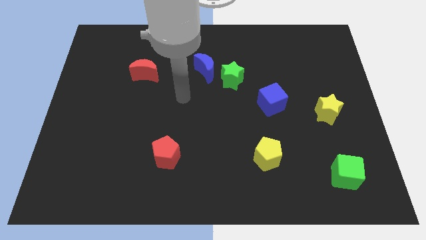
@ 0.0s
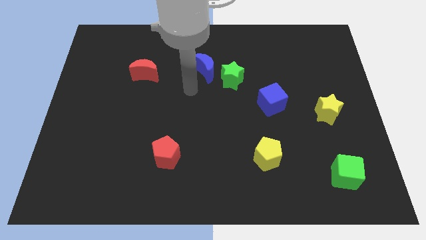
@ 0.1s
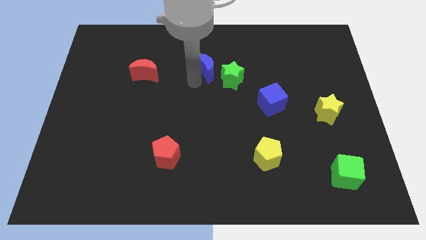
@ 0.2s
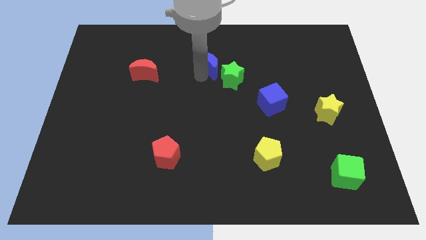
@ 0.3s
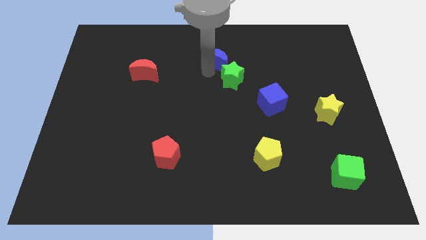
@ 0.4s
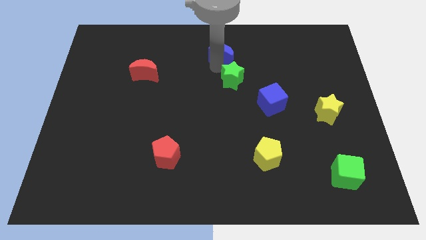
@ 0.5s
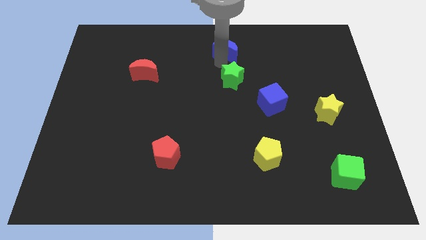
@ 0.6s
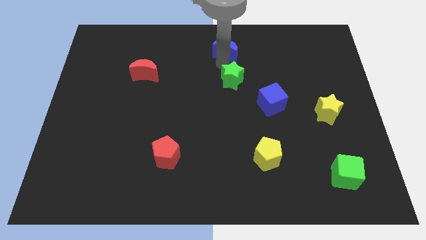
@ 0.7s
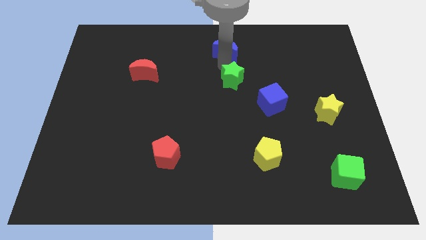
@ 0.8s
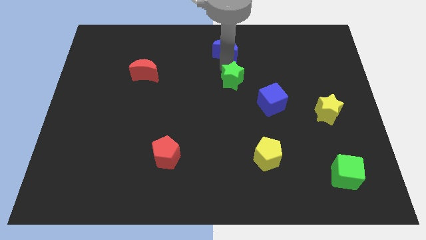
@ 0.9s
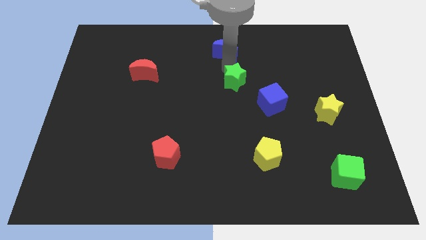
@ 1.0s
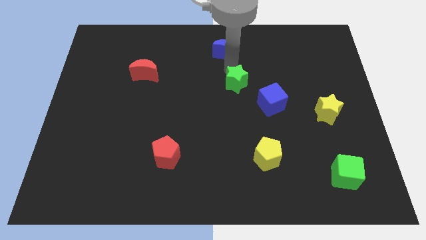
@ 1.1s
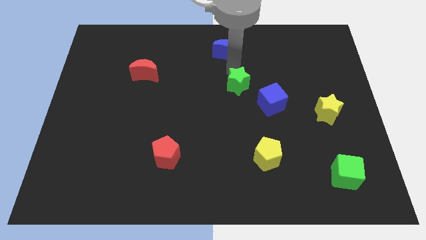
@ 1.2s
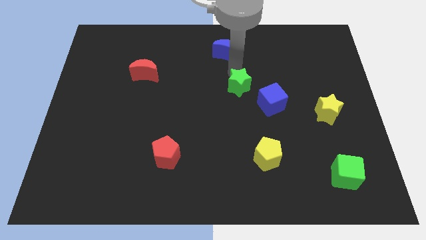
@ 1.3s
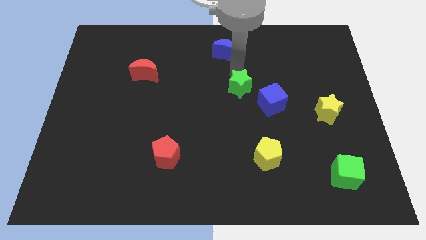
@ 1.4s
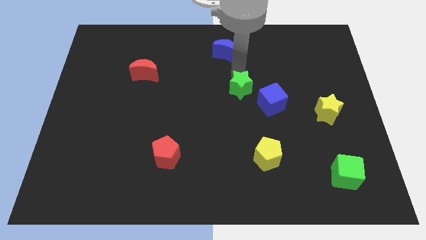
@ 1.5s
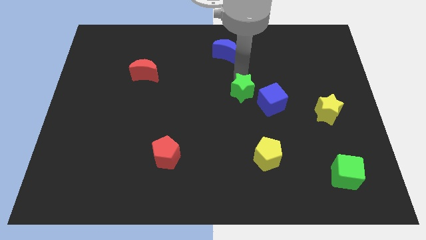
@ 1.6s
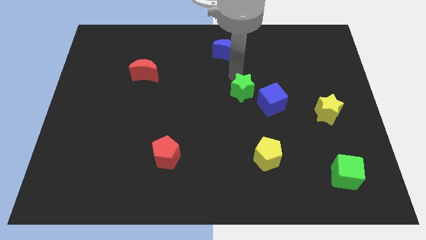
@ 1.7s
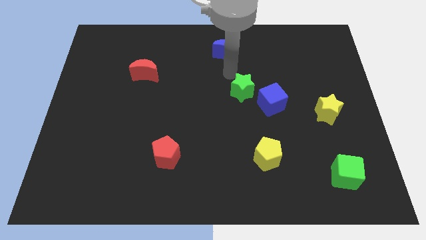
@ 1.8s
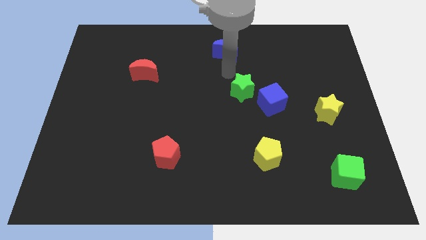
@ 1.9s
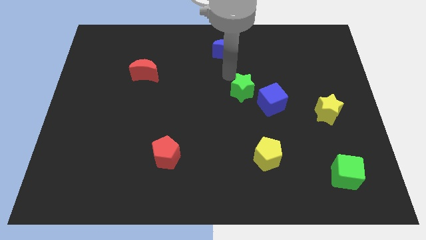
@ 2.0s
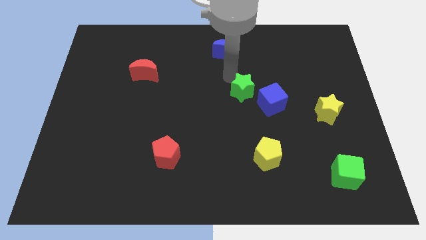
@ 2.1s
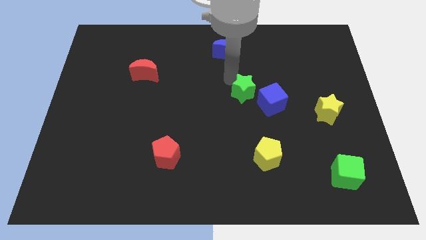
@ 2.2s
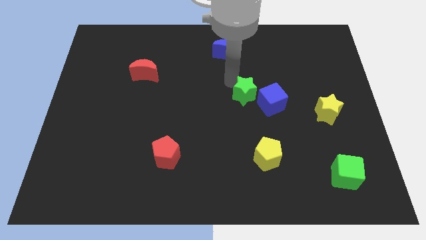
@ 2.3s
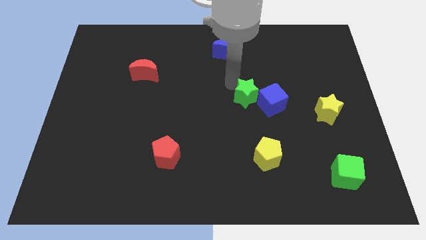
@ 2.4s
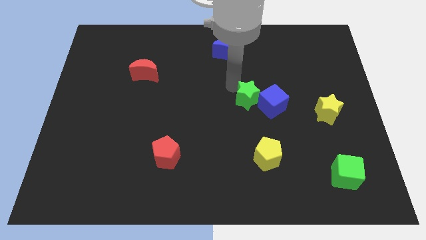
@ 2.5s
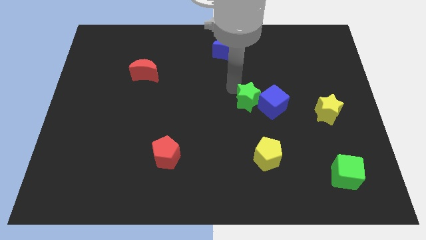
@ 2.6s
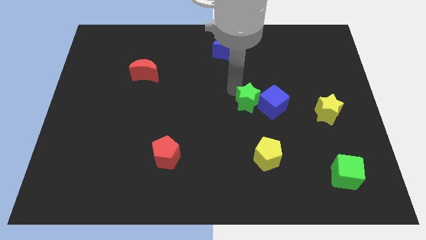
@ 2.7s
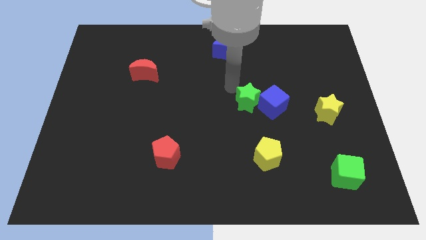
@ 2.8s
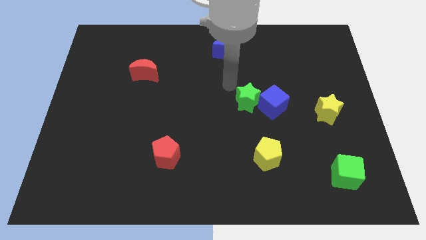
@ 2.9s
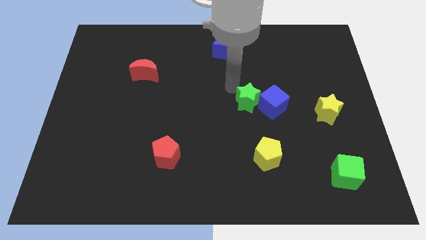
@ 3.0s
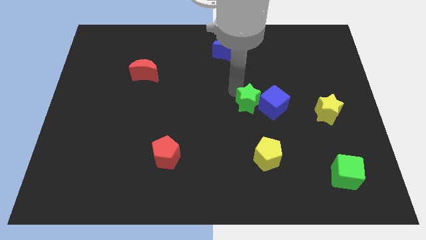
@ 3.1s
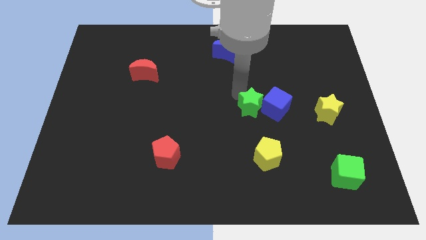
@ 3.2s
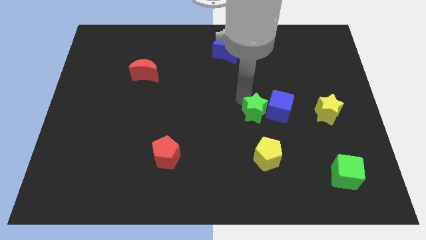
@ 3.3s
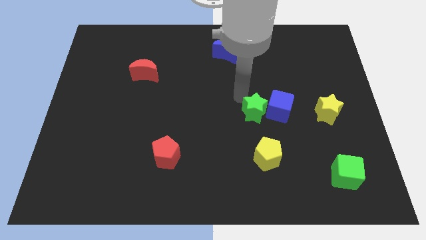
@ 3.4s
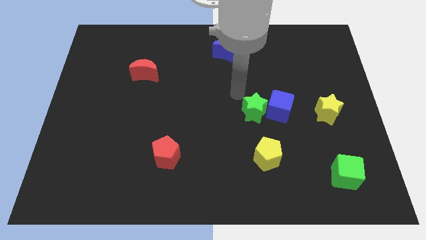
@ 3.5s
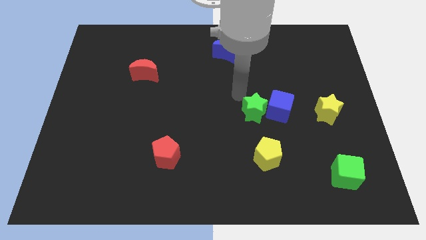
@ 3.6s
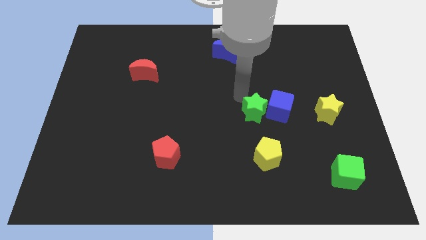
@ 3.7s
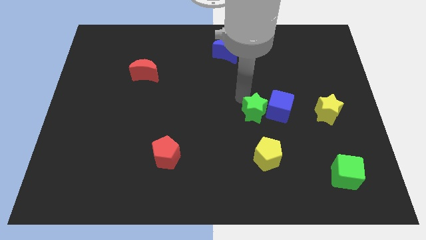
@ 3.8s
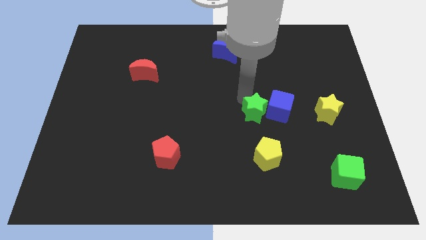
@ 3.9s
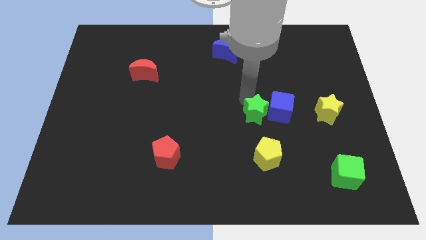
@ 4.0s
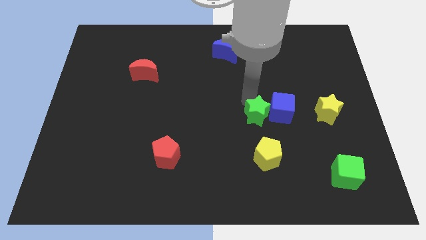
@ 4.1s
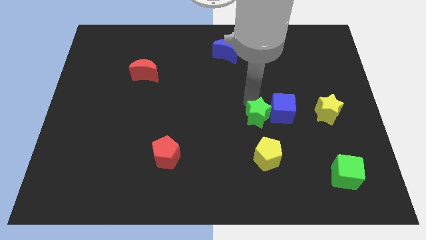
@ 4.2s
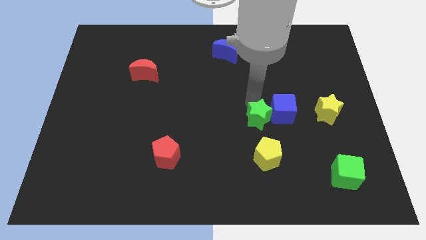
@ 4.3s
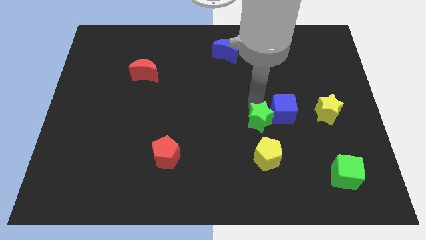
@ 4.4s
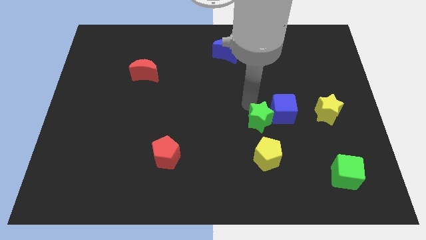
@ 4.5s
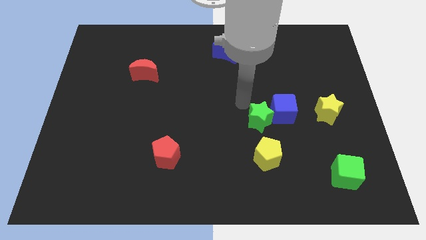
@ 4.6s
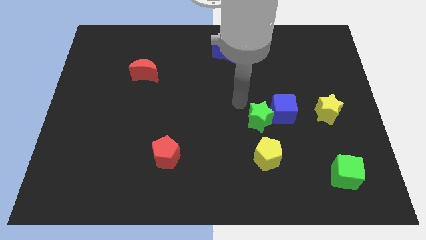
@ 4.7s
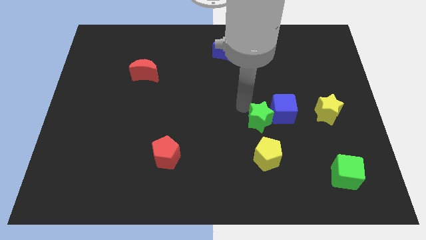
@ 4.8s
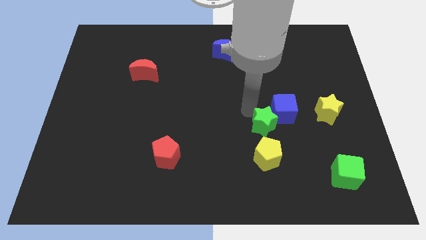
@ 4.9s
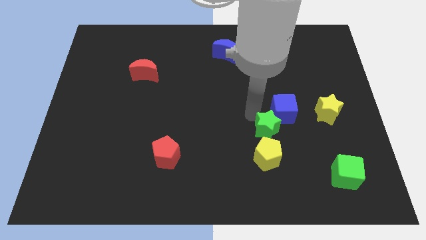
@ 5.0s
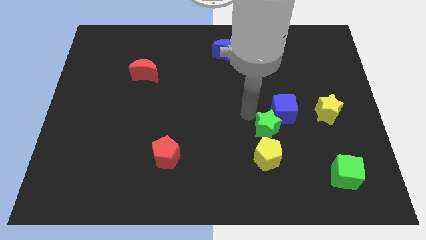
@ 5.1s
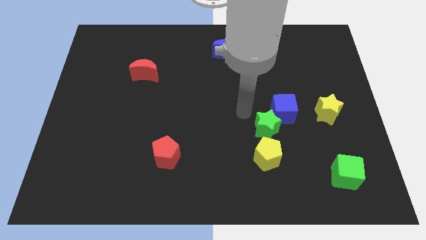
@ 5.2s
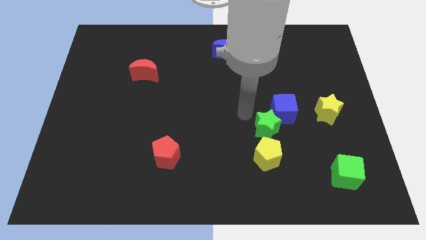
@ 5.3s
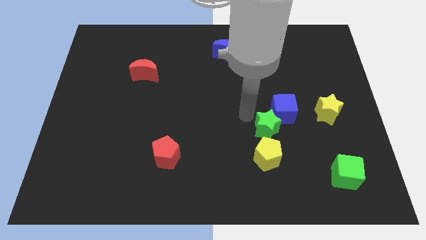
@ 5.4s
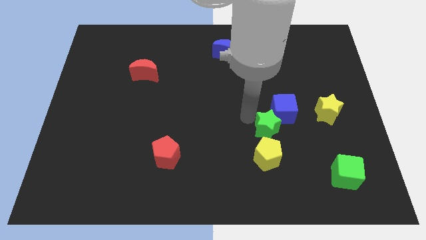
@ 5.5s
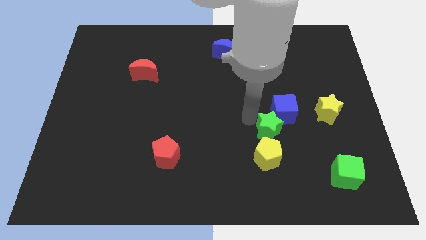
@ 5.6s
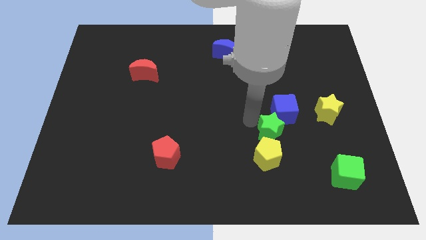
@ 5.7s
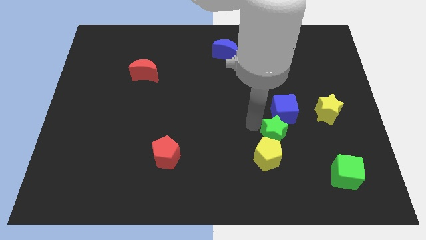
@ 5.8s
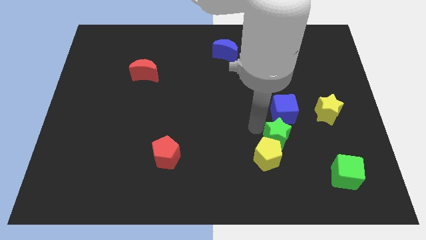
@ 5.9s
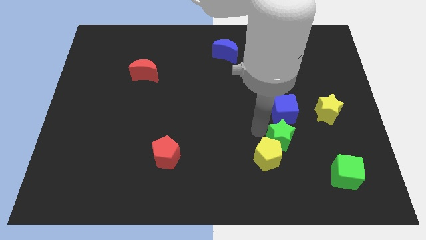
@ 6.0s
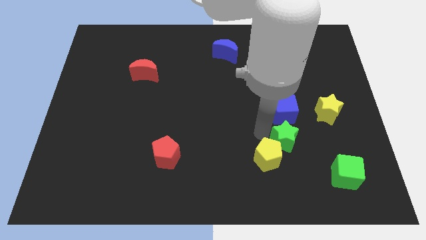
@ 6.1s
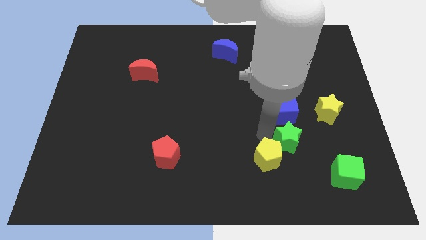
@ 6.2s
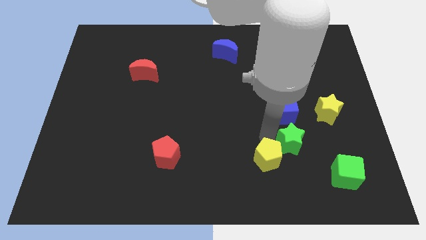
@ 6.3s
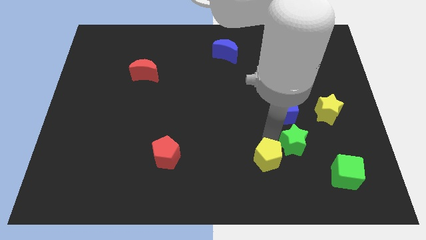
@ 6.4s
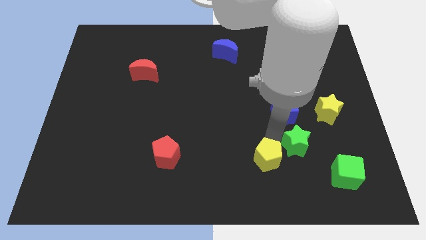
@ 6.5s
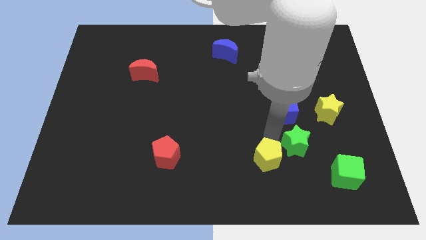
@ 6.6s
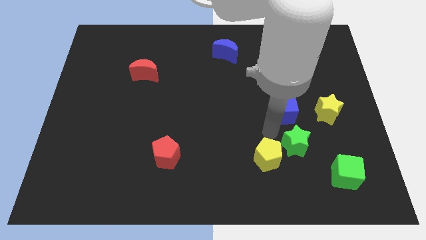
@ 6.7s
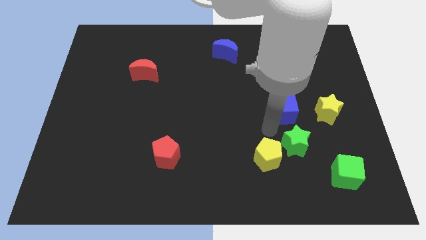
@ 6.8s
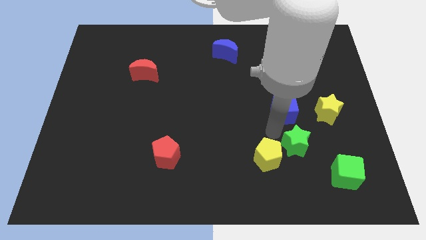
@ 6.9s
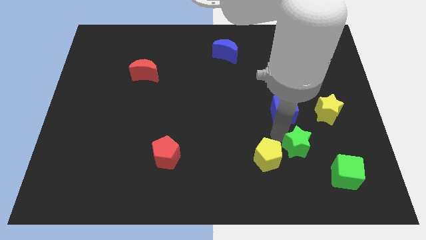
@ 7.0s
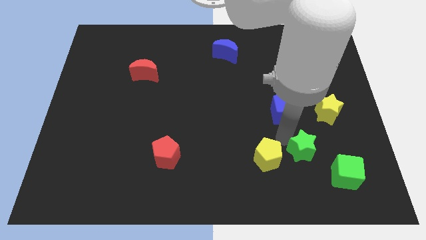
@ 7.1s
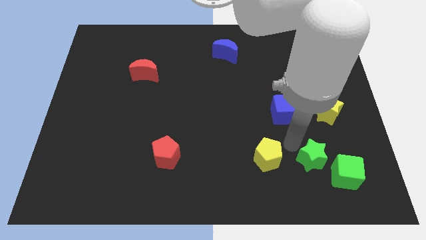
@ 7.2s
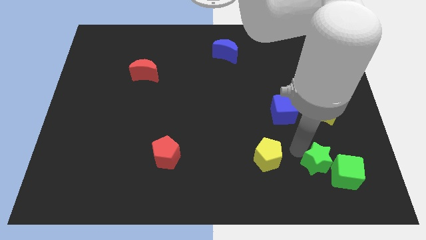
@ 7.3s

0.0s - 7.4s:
slide the green star close to the green cube

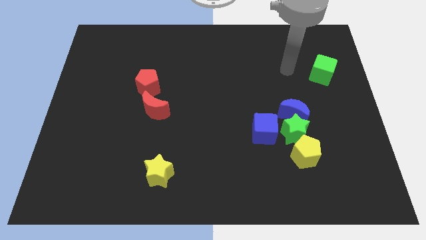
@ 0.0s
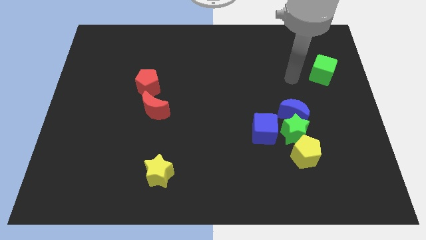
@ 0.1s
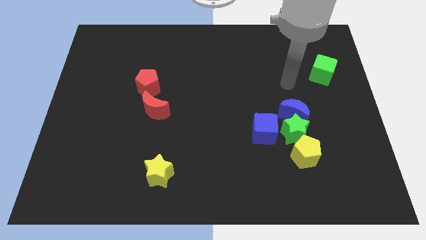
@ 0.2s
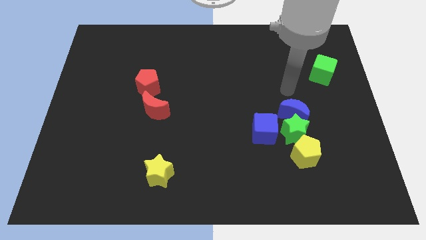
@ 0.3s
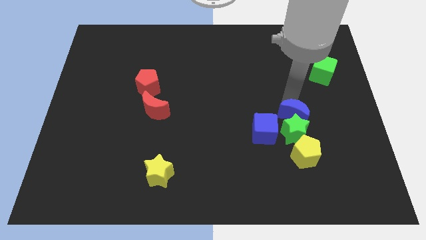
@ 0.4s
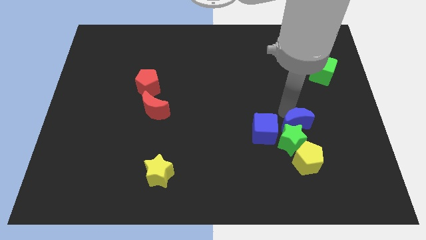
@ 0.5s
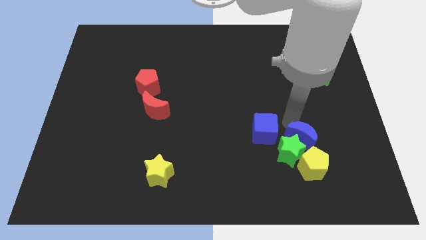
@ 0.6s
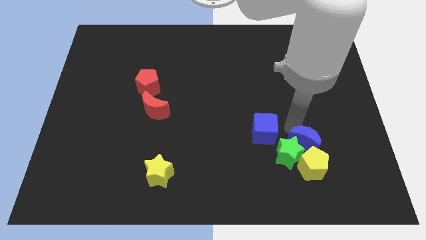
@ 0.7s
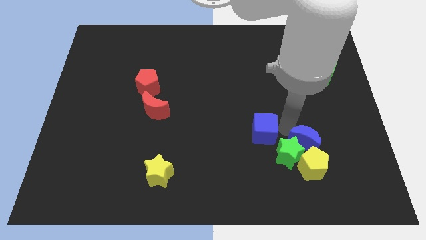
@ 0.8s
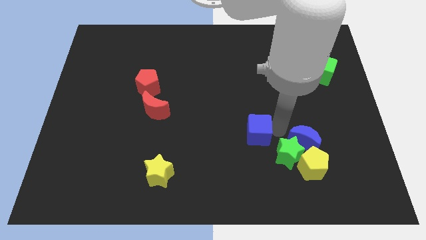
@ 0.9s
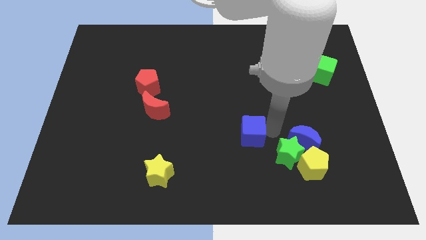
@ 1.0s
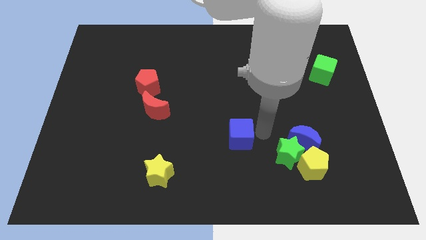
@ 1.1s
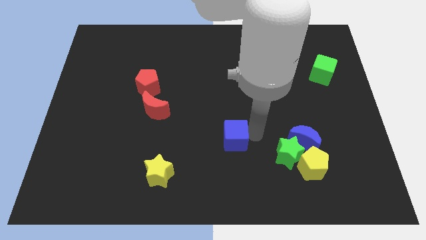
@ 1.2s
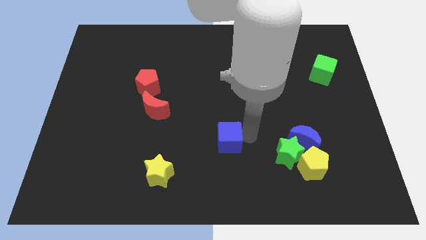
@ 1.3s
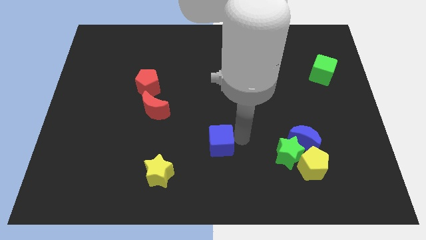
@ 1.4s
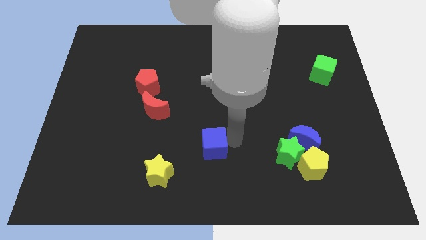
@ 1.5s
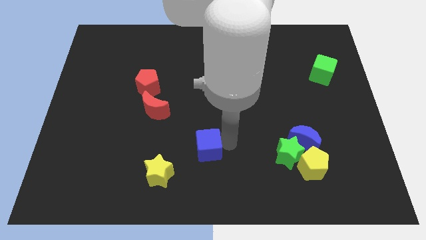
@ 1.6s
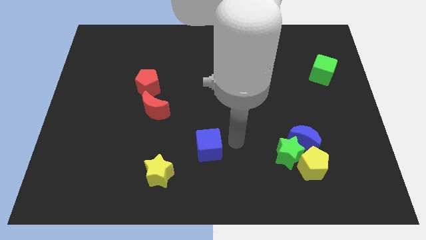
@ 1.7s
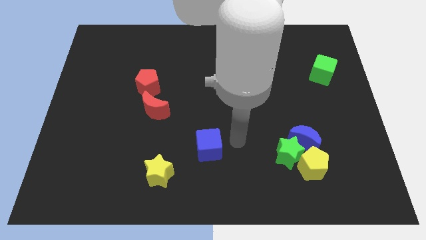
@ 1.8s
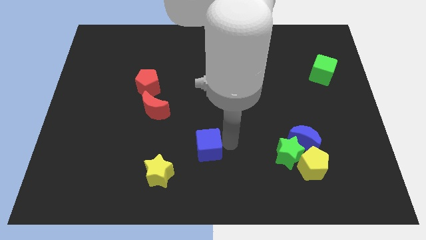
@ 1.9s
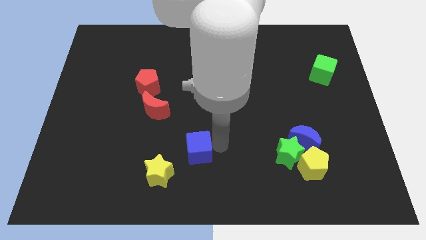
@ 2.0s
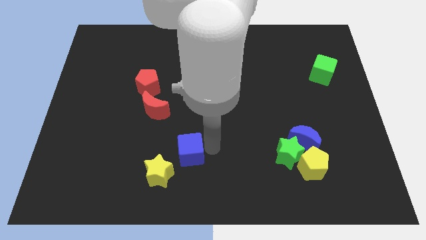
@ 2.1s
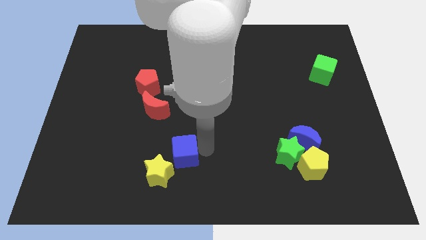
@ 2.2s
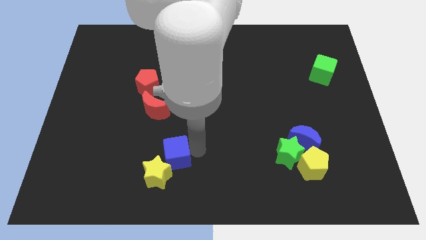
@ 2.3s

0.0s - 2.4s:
push the blue cube close to the yellow star
